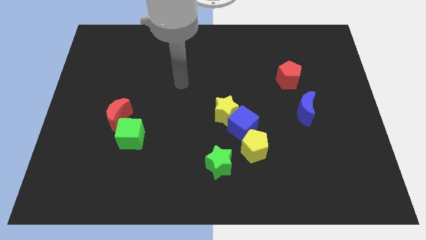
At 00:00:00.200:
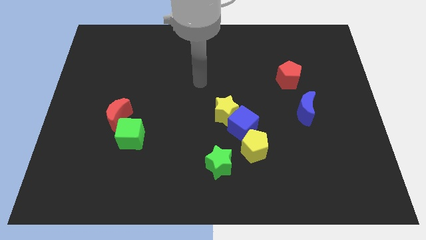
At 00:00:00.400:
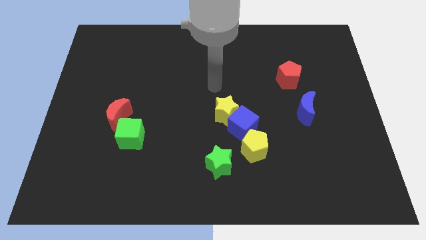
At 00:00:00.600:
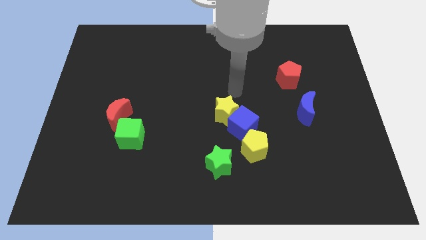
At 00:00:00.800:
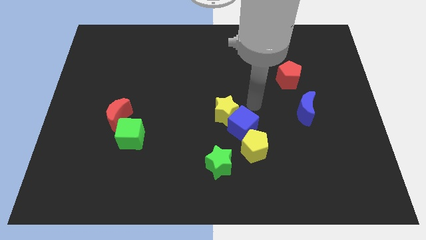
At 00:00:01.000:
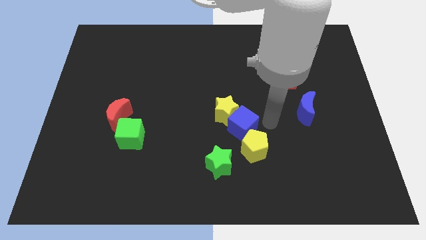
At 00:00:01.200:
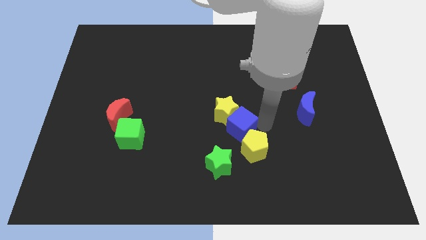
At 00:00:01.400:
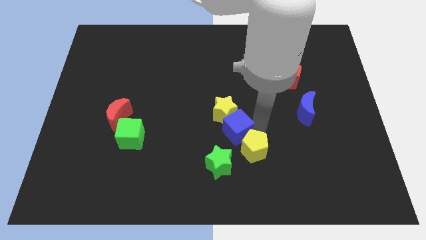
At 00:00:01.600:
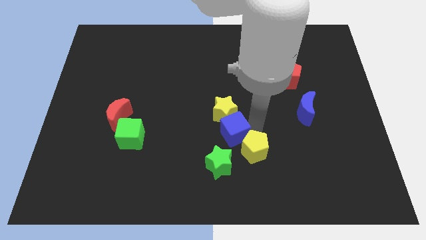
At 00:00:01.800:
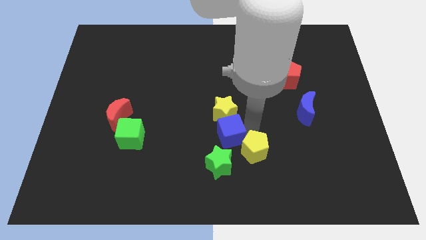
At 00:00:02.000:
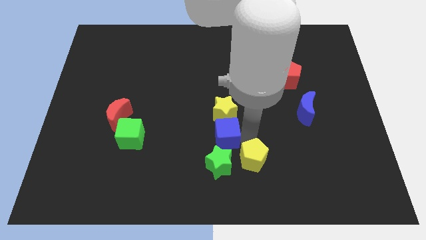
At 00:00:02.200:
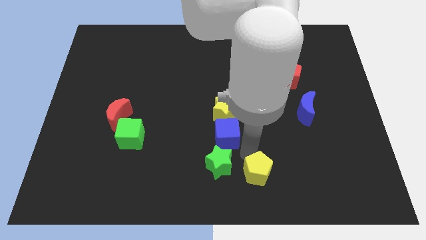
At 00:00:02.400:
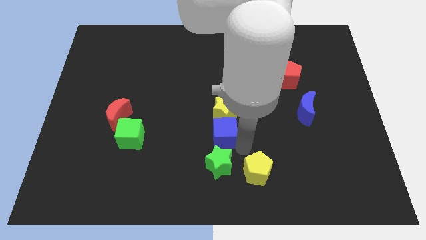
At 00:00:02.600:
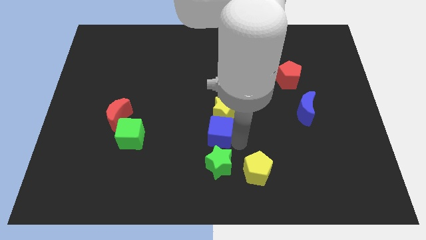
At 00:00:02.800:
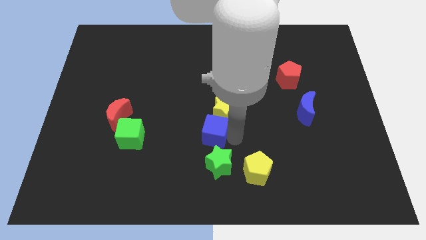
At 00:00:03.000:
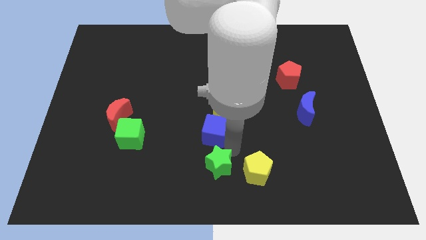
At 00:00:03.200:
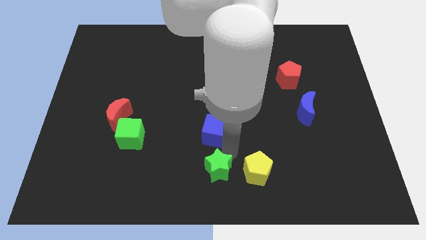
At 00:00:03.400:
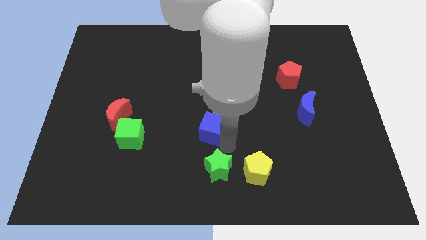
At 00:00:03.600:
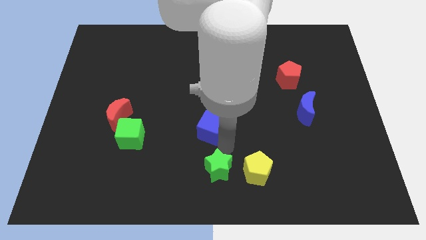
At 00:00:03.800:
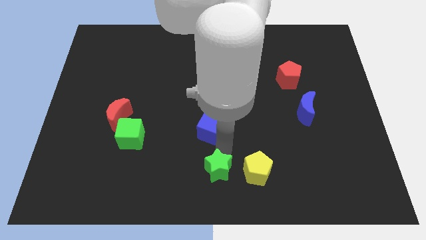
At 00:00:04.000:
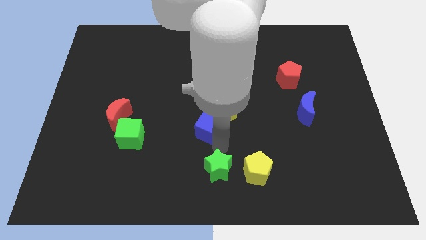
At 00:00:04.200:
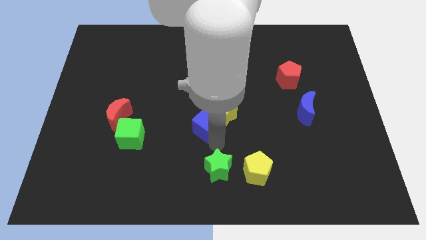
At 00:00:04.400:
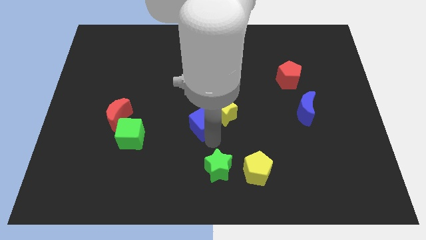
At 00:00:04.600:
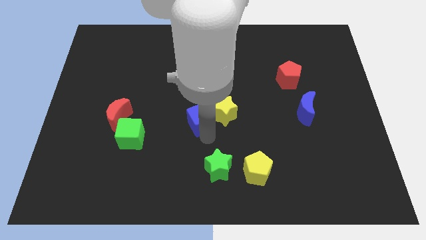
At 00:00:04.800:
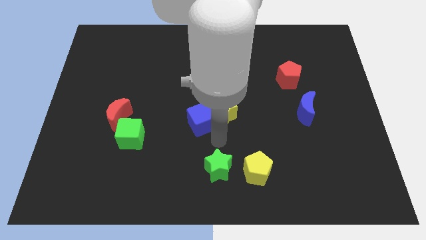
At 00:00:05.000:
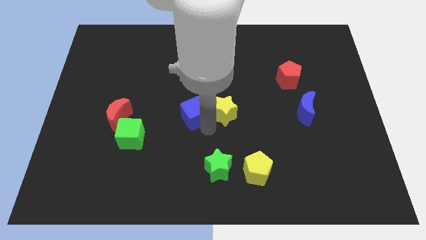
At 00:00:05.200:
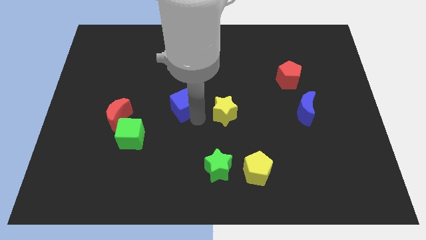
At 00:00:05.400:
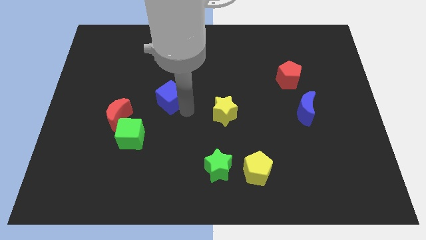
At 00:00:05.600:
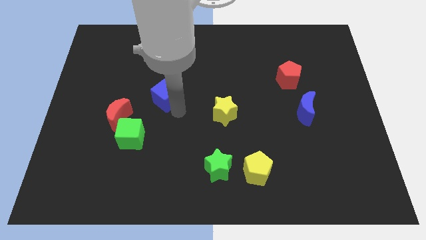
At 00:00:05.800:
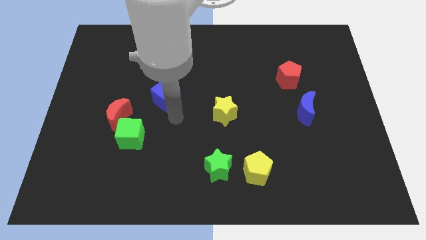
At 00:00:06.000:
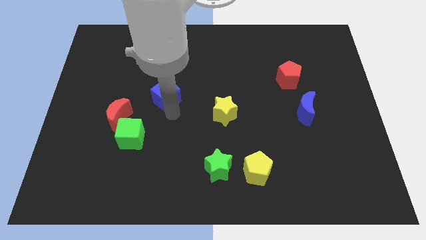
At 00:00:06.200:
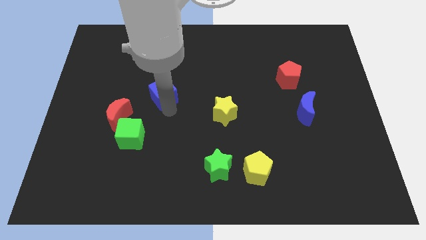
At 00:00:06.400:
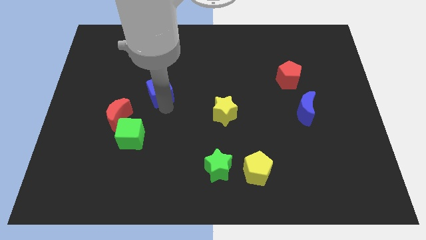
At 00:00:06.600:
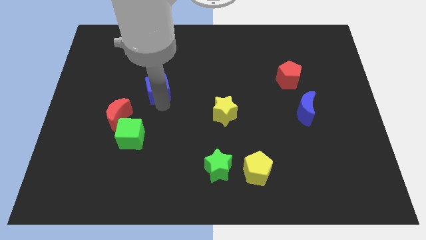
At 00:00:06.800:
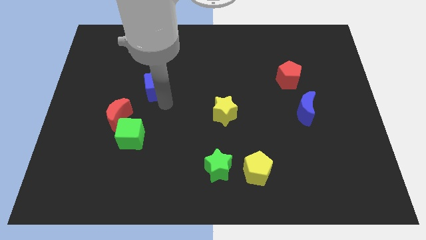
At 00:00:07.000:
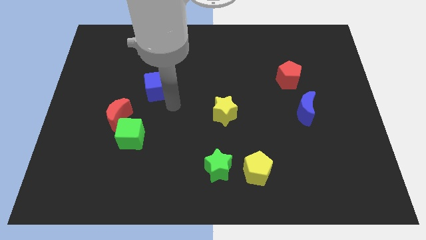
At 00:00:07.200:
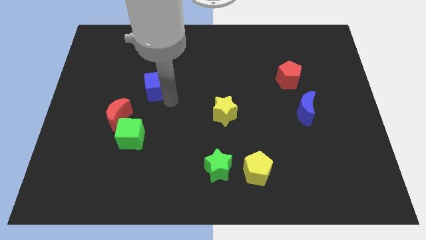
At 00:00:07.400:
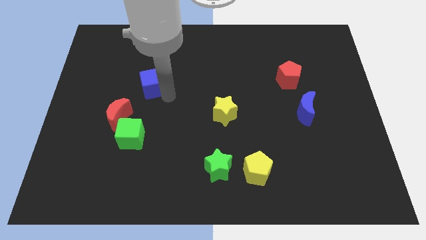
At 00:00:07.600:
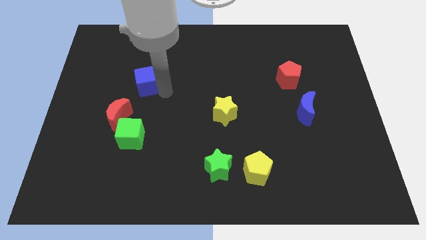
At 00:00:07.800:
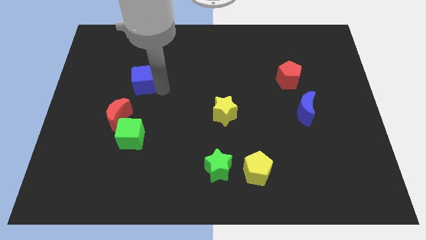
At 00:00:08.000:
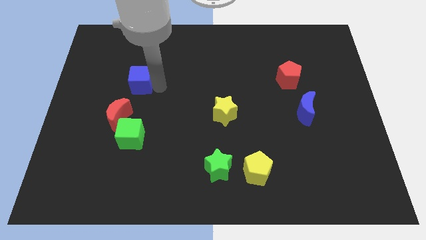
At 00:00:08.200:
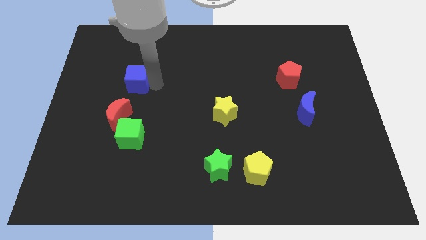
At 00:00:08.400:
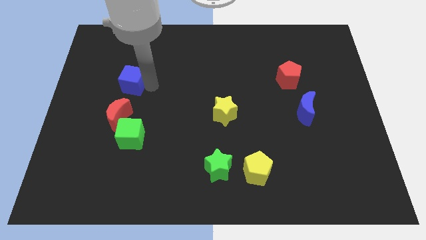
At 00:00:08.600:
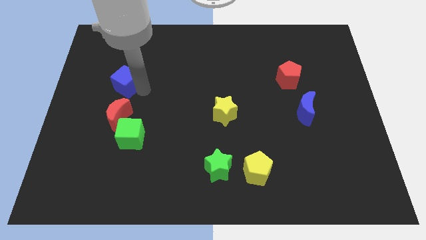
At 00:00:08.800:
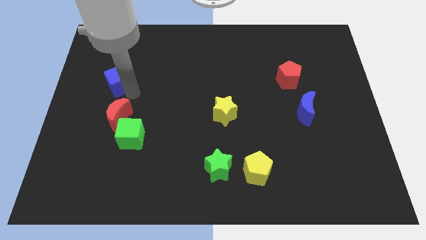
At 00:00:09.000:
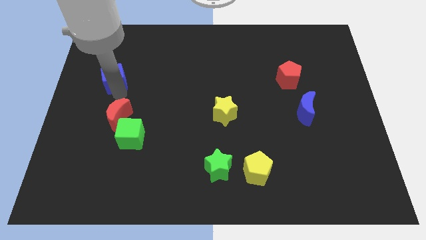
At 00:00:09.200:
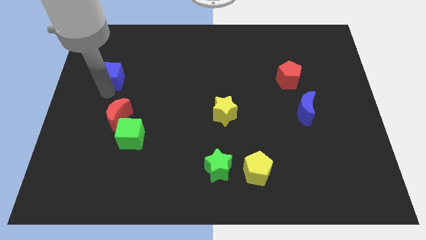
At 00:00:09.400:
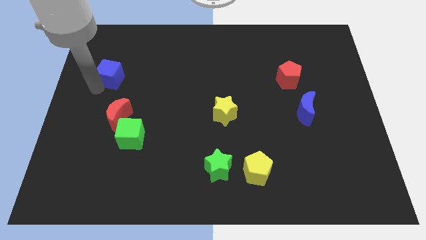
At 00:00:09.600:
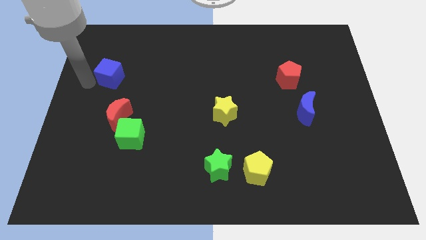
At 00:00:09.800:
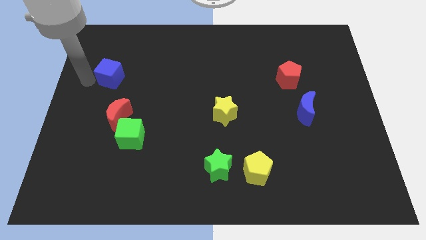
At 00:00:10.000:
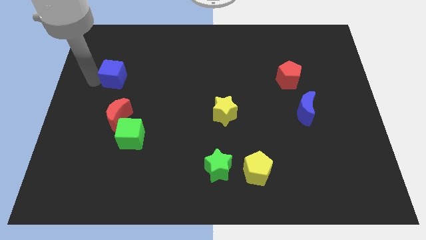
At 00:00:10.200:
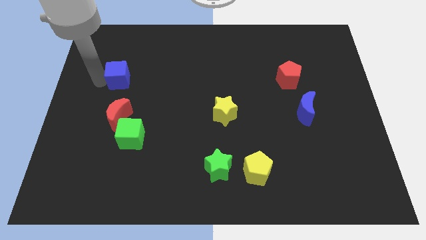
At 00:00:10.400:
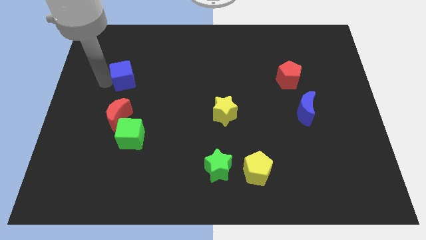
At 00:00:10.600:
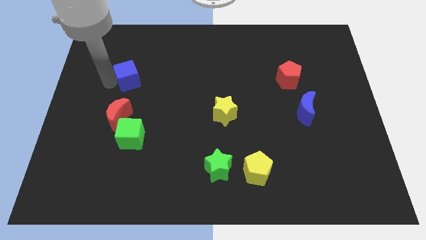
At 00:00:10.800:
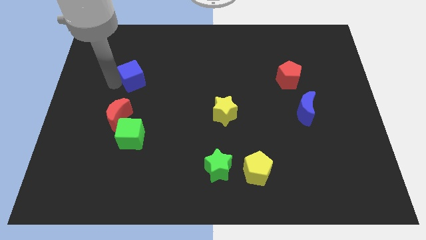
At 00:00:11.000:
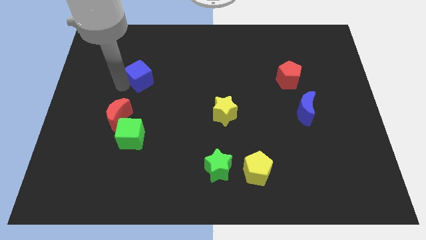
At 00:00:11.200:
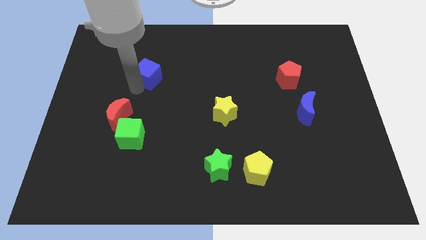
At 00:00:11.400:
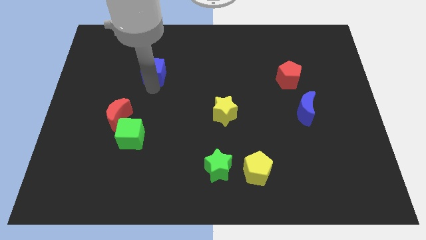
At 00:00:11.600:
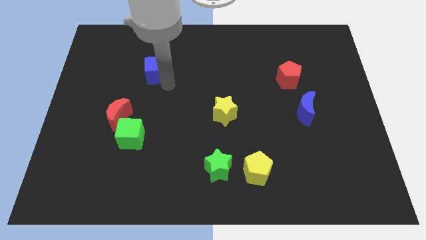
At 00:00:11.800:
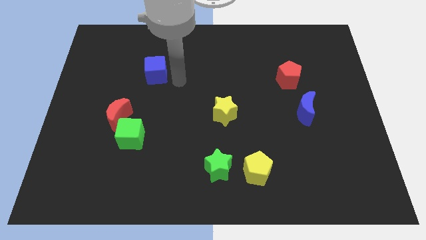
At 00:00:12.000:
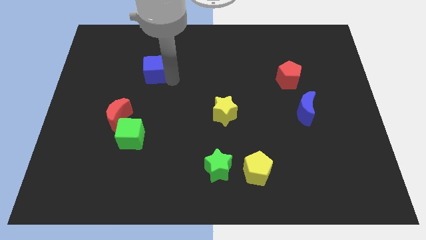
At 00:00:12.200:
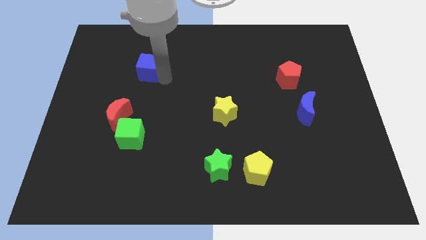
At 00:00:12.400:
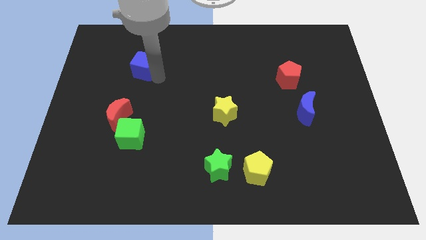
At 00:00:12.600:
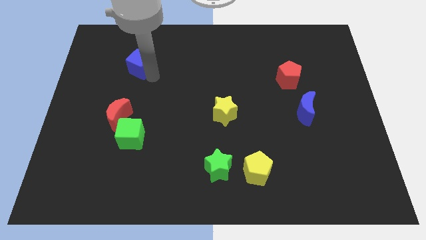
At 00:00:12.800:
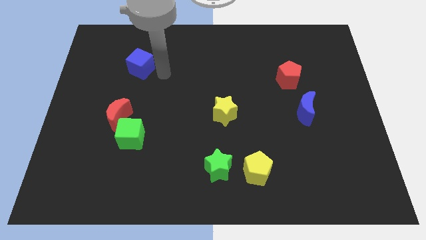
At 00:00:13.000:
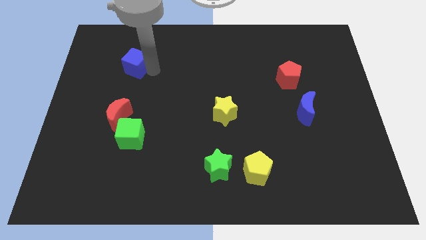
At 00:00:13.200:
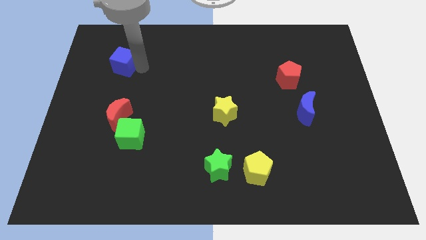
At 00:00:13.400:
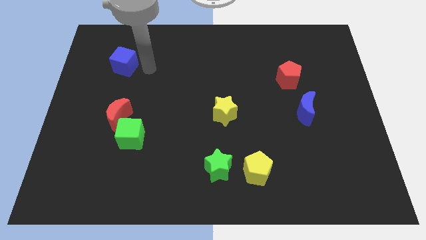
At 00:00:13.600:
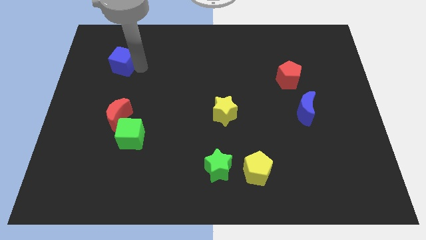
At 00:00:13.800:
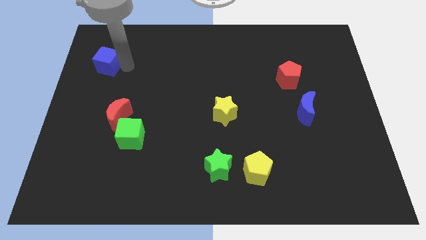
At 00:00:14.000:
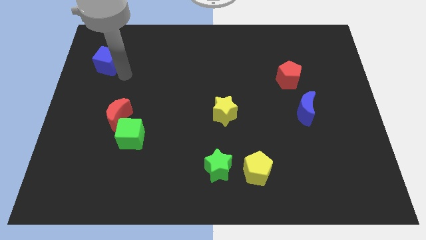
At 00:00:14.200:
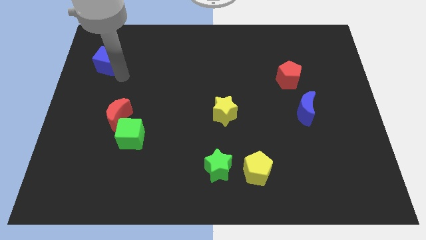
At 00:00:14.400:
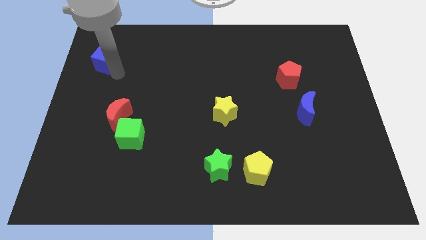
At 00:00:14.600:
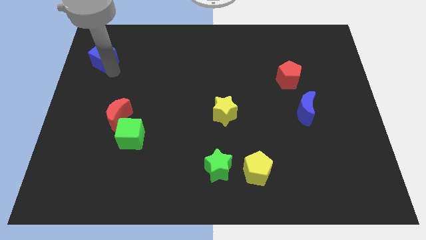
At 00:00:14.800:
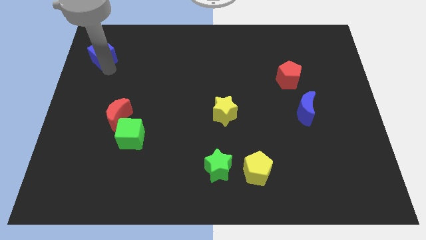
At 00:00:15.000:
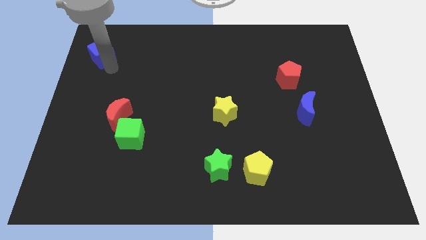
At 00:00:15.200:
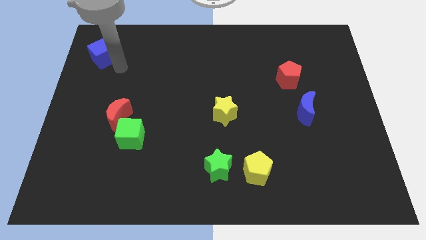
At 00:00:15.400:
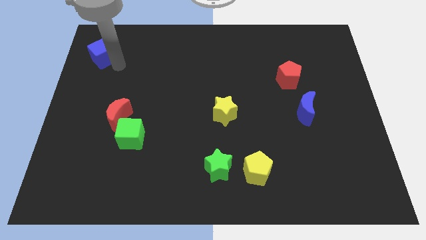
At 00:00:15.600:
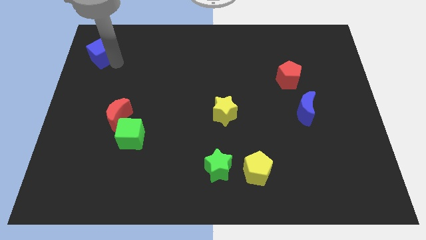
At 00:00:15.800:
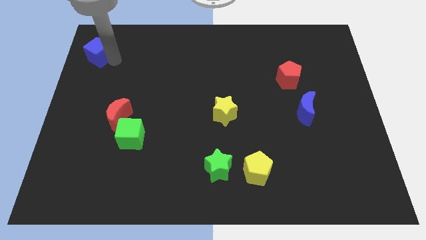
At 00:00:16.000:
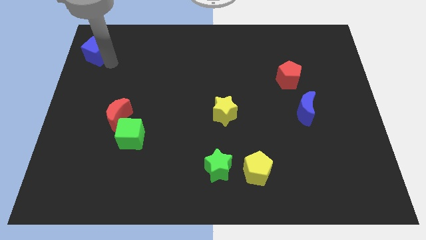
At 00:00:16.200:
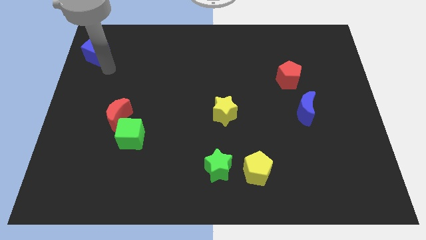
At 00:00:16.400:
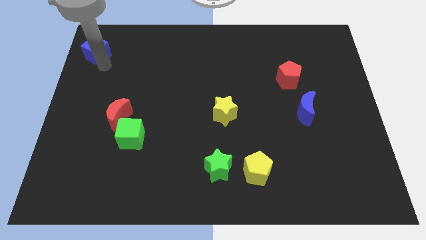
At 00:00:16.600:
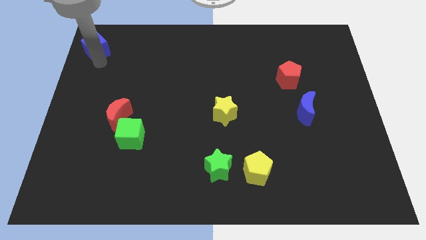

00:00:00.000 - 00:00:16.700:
move the blue cube to the top left
